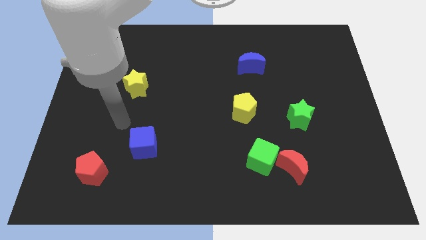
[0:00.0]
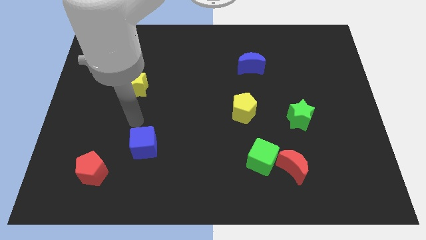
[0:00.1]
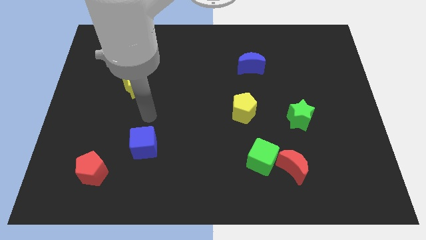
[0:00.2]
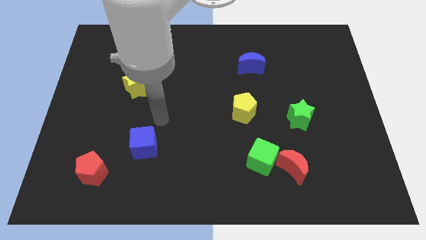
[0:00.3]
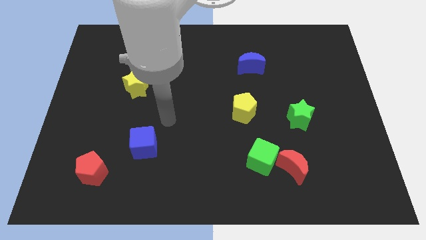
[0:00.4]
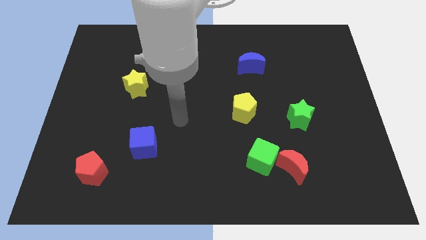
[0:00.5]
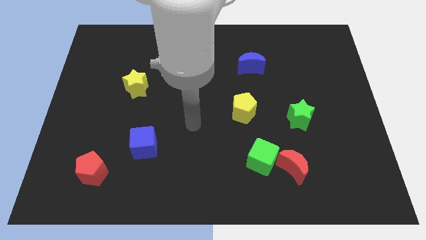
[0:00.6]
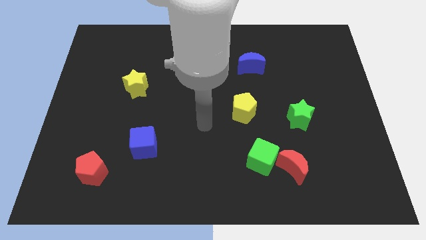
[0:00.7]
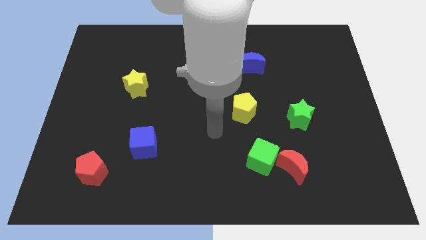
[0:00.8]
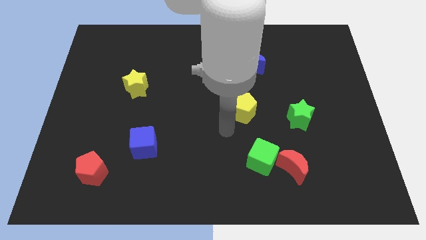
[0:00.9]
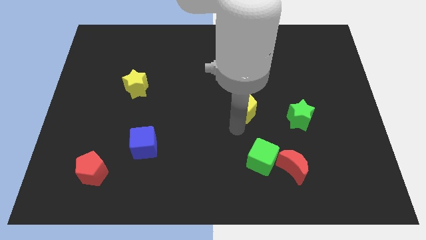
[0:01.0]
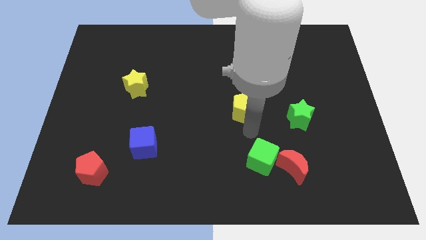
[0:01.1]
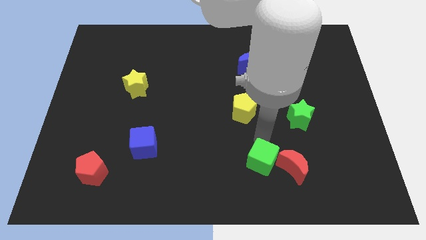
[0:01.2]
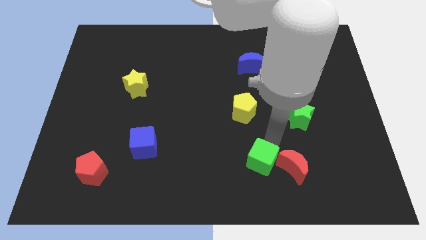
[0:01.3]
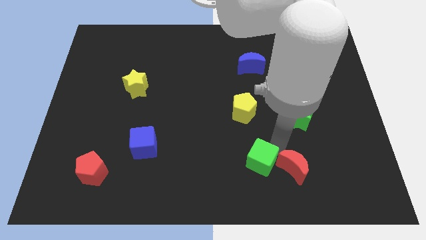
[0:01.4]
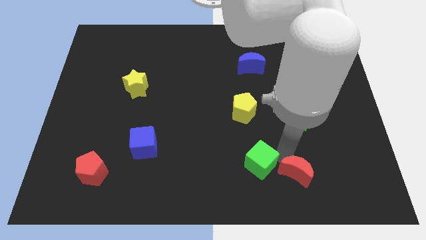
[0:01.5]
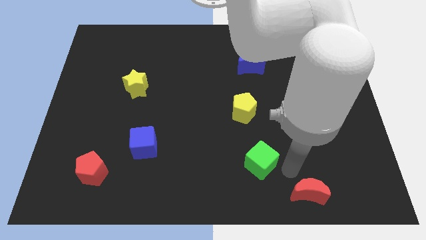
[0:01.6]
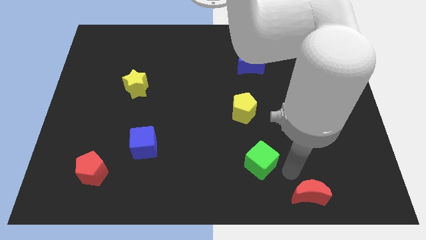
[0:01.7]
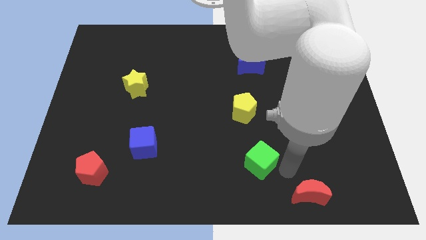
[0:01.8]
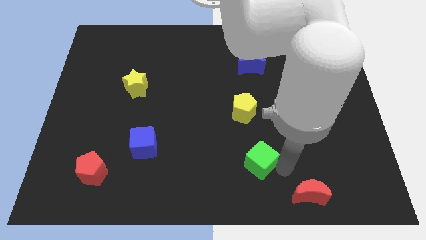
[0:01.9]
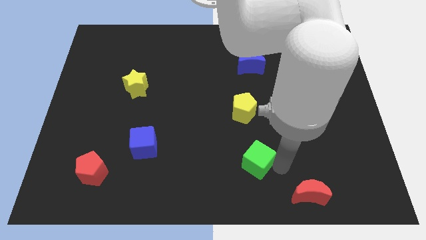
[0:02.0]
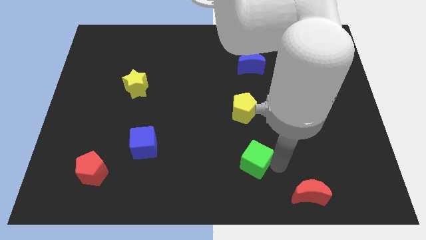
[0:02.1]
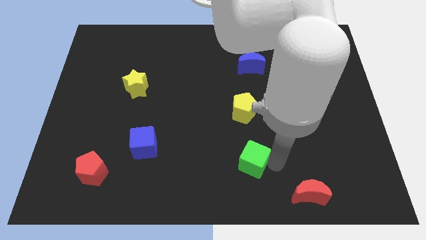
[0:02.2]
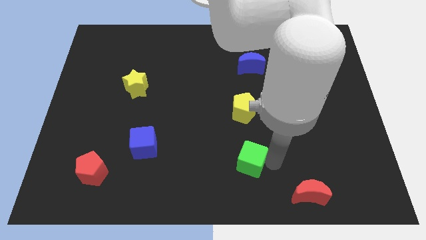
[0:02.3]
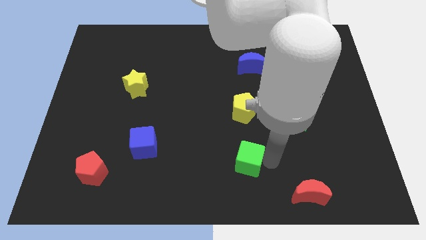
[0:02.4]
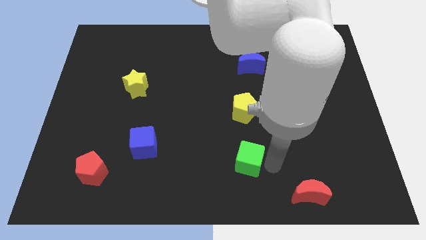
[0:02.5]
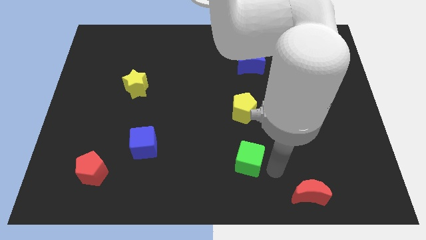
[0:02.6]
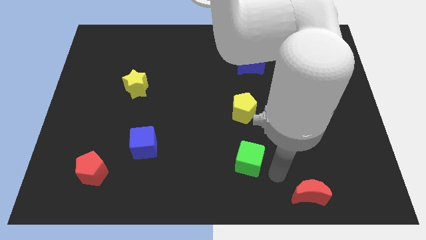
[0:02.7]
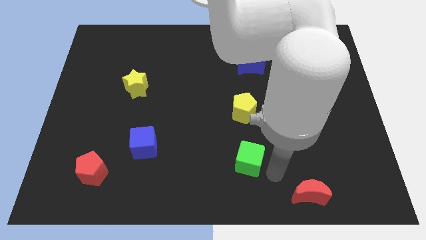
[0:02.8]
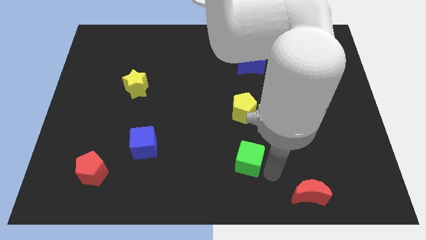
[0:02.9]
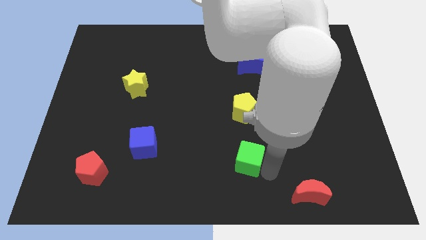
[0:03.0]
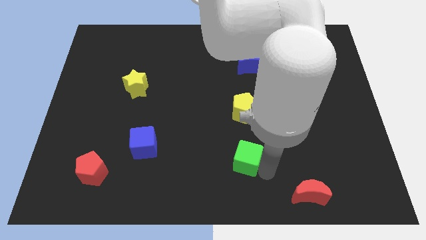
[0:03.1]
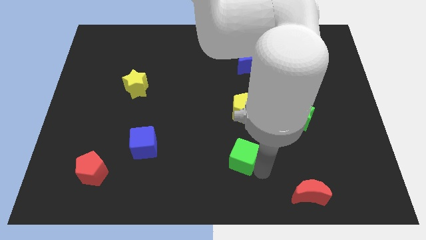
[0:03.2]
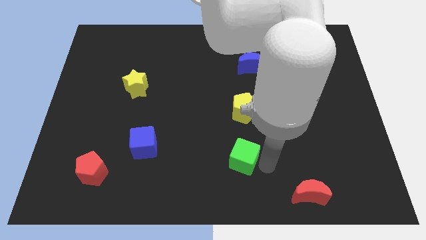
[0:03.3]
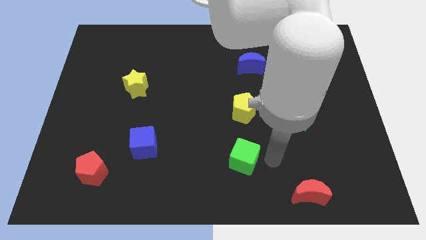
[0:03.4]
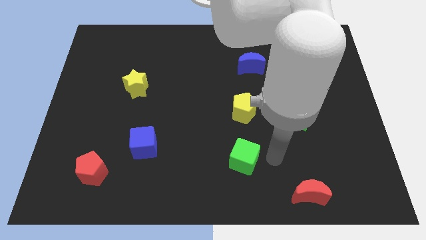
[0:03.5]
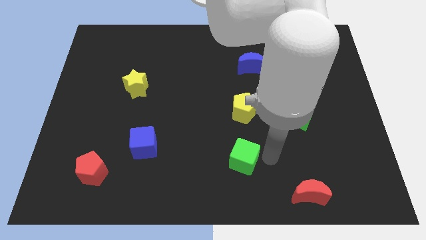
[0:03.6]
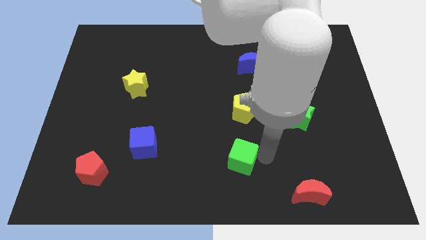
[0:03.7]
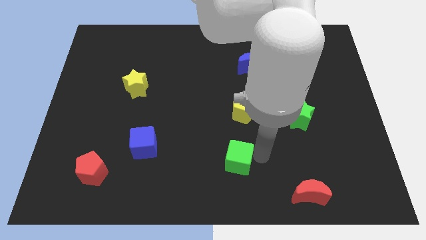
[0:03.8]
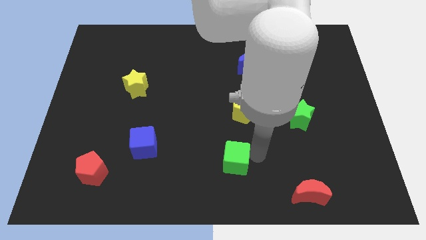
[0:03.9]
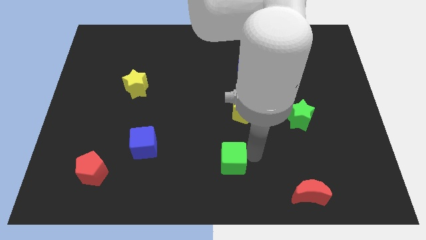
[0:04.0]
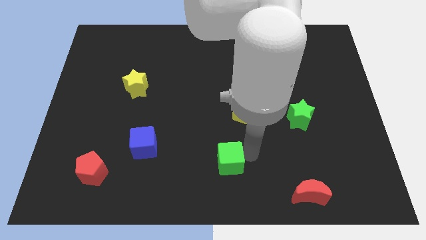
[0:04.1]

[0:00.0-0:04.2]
slightly slide the green cube to the left

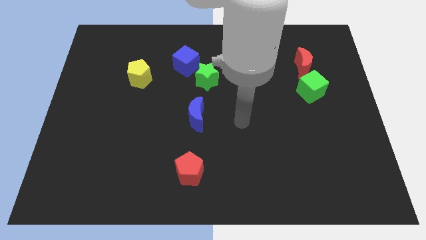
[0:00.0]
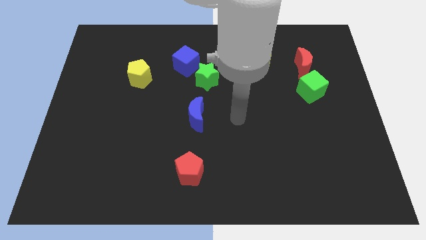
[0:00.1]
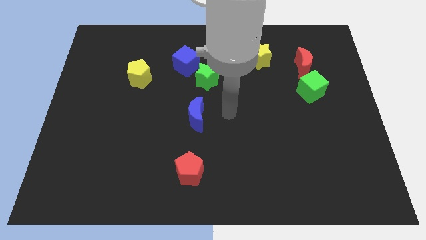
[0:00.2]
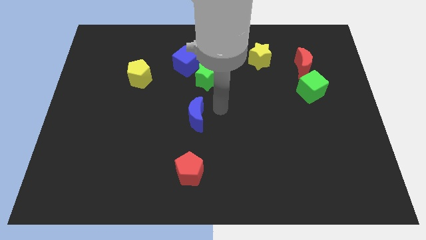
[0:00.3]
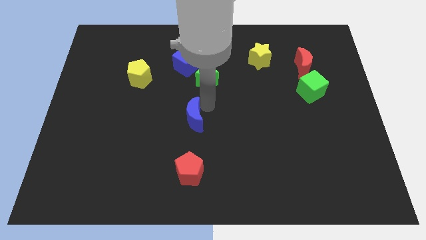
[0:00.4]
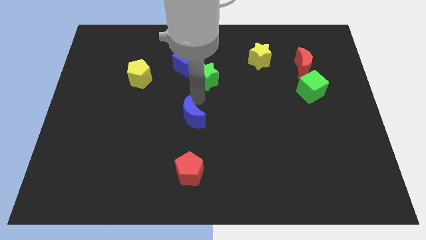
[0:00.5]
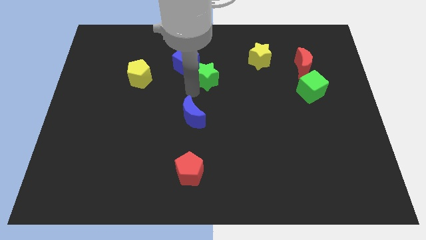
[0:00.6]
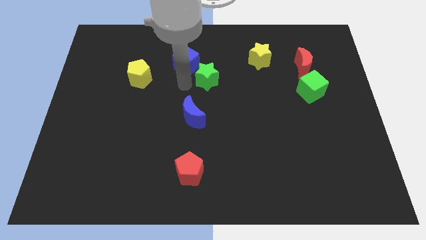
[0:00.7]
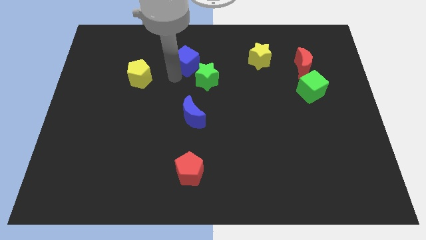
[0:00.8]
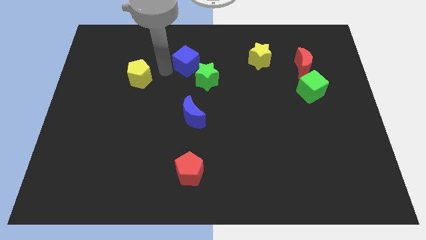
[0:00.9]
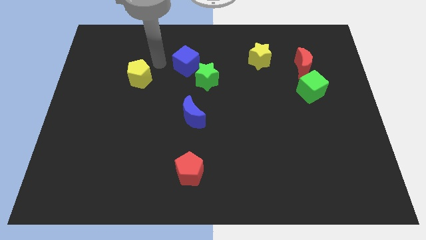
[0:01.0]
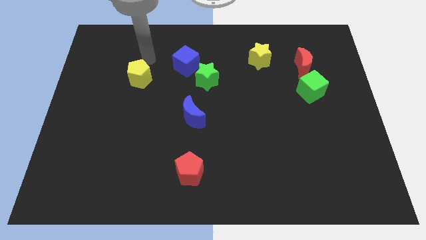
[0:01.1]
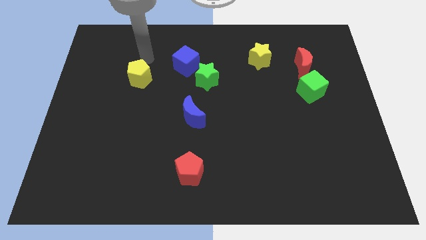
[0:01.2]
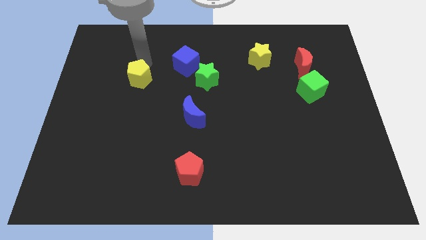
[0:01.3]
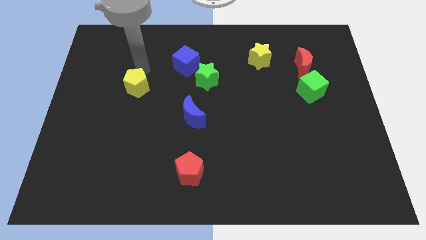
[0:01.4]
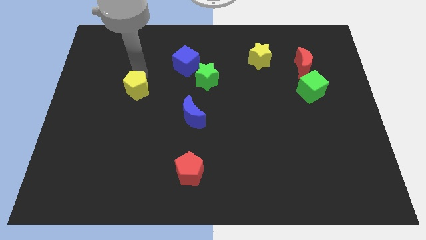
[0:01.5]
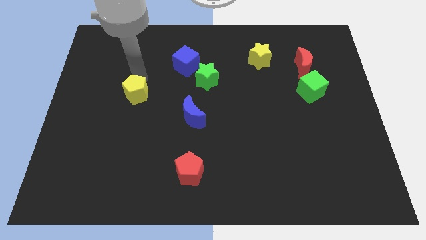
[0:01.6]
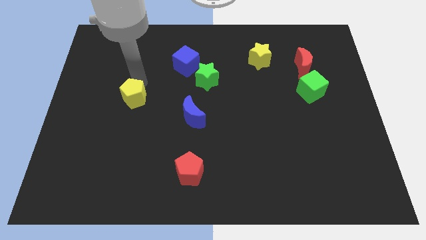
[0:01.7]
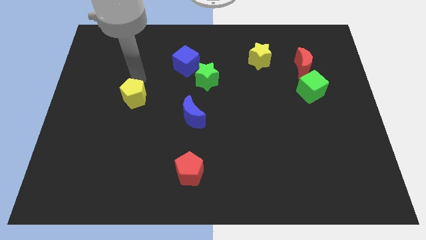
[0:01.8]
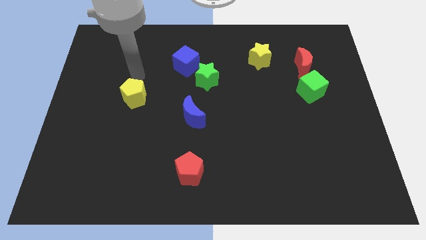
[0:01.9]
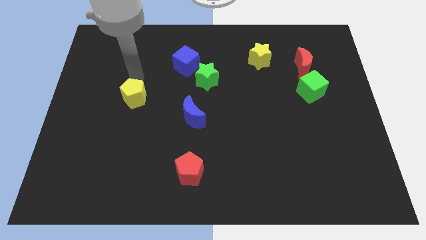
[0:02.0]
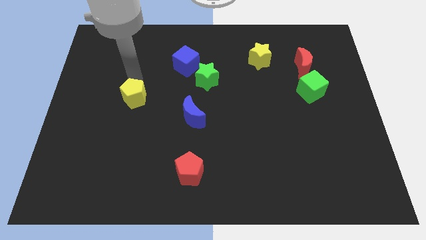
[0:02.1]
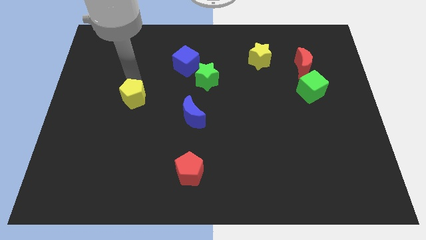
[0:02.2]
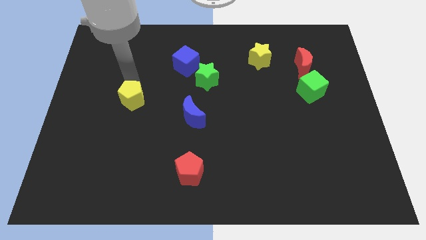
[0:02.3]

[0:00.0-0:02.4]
push the yellow pentagon down somewhat

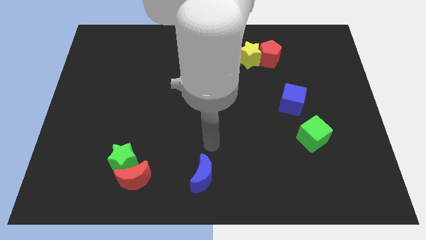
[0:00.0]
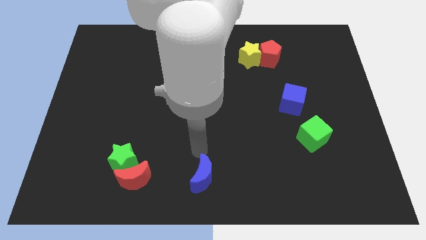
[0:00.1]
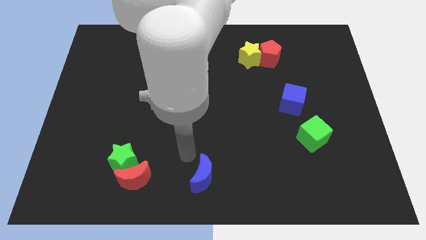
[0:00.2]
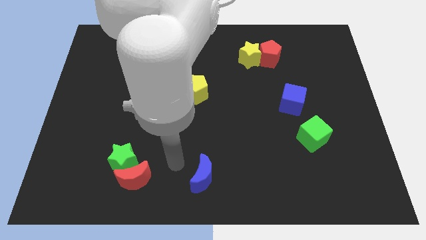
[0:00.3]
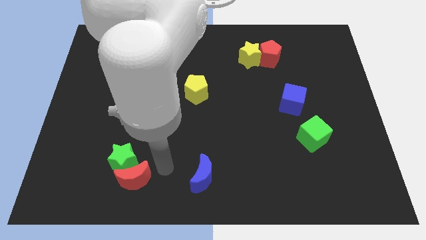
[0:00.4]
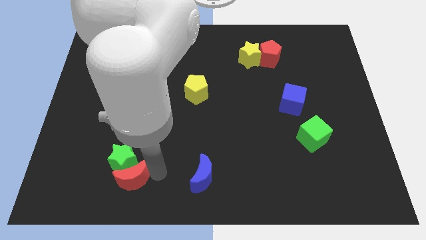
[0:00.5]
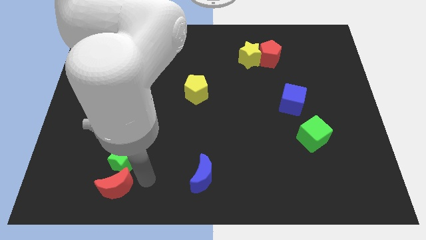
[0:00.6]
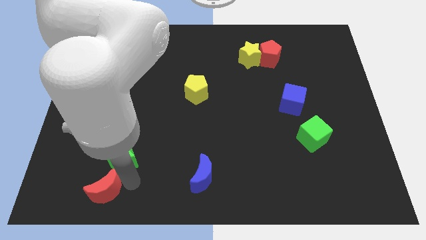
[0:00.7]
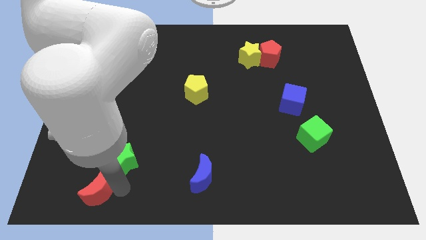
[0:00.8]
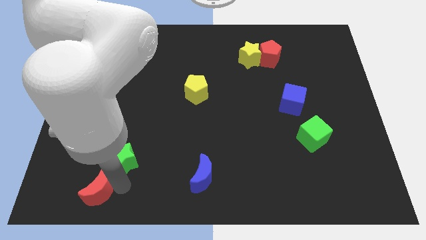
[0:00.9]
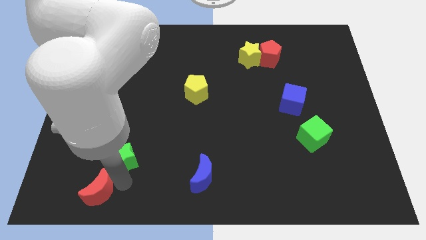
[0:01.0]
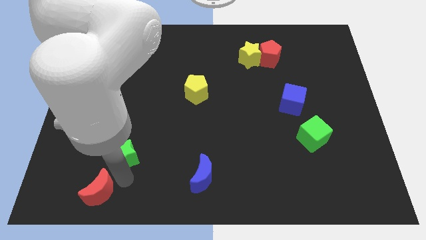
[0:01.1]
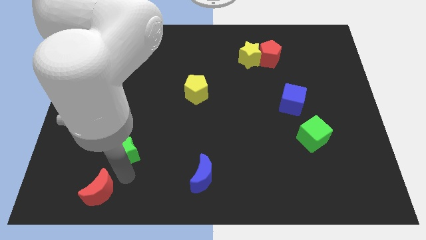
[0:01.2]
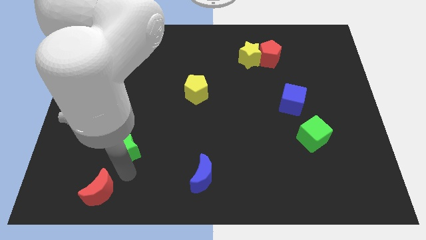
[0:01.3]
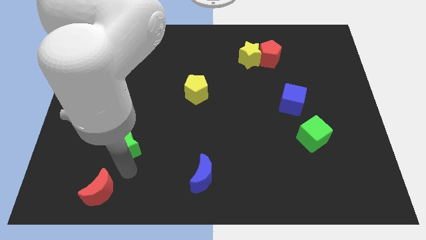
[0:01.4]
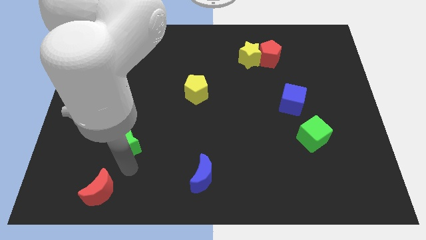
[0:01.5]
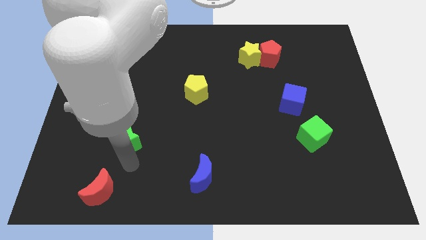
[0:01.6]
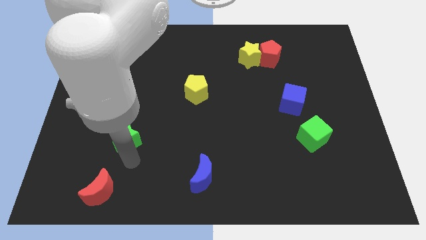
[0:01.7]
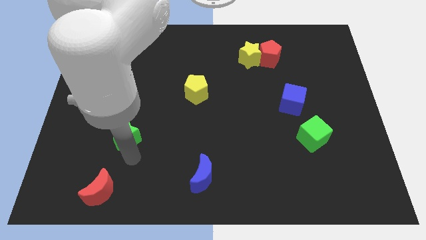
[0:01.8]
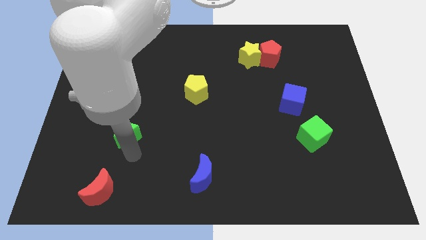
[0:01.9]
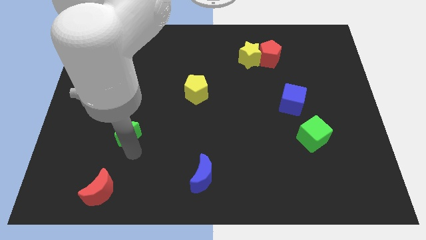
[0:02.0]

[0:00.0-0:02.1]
slightly move the green star upwards
